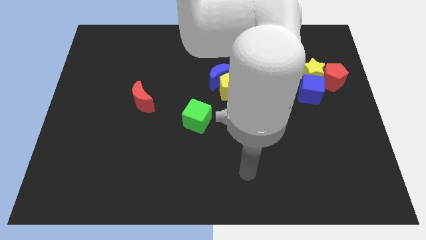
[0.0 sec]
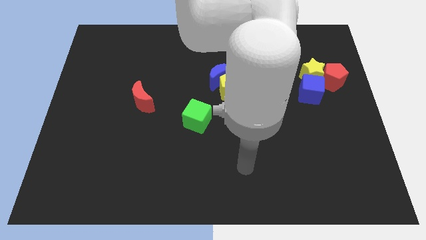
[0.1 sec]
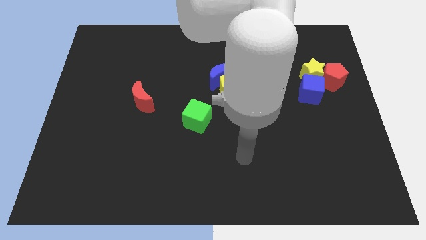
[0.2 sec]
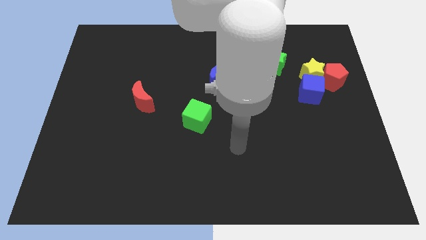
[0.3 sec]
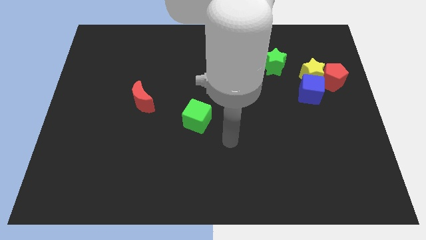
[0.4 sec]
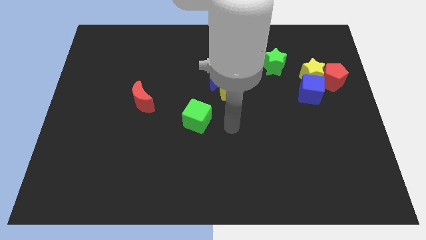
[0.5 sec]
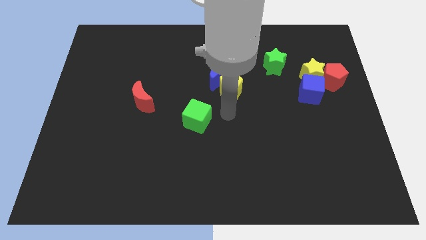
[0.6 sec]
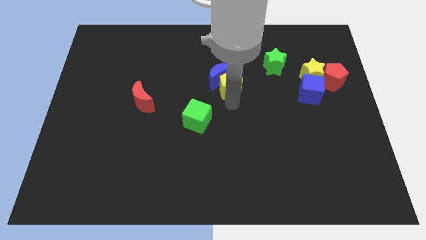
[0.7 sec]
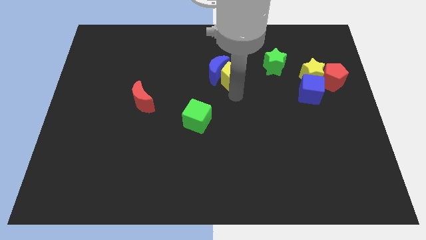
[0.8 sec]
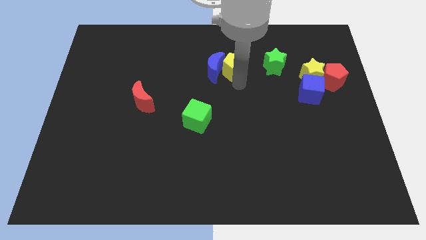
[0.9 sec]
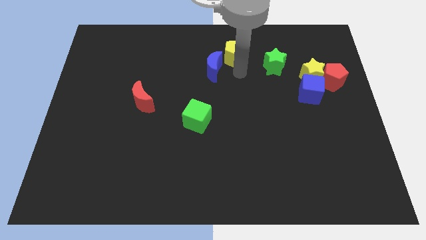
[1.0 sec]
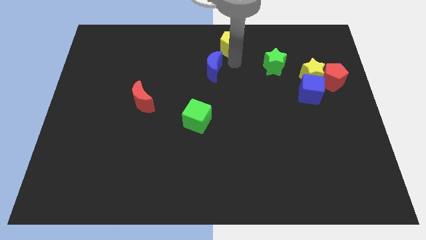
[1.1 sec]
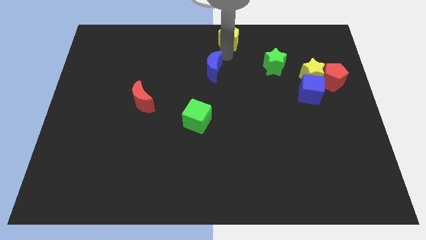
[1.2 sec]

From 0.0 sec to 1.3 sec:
move the blue moon away from the yellow pentagon

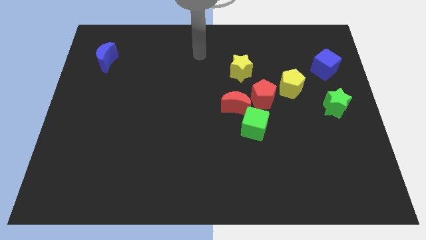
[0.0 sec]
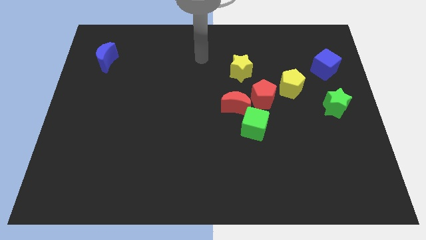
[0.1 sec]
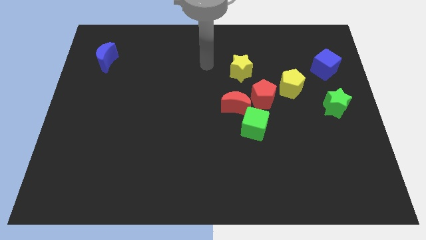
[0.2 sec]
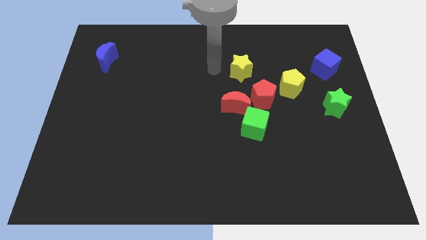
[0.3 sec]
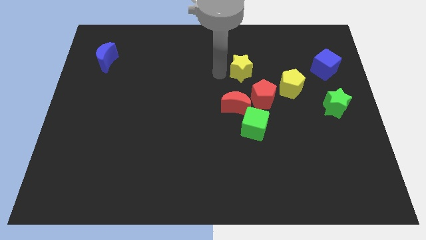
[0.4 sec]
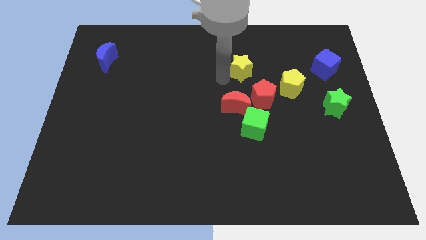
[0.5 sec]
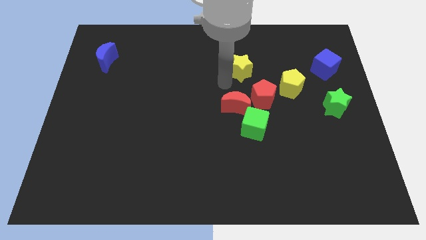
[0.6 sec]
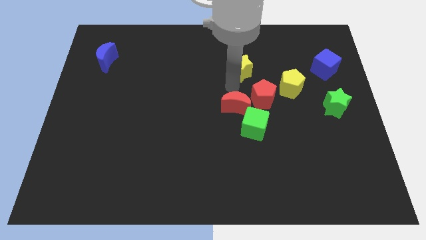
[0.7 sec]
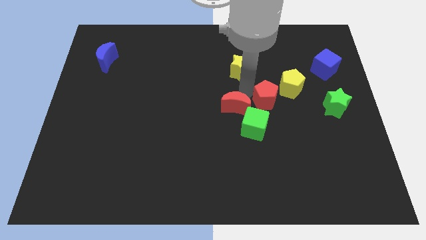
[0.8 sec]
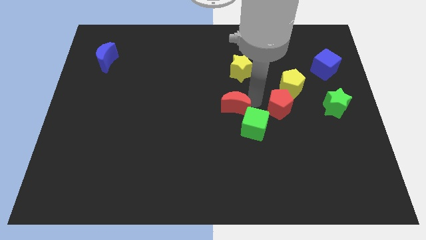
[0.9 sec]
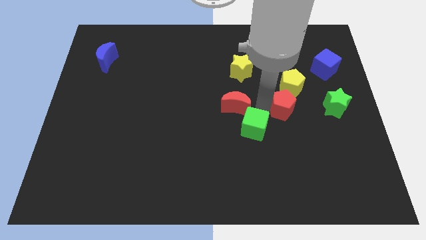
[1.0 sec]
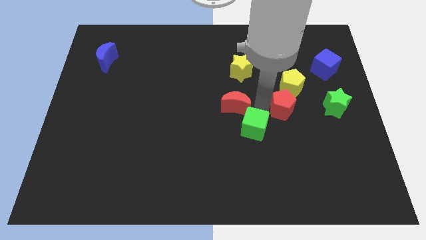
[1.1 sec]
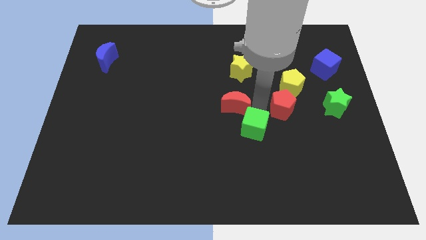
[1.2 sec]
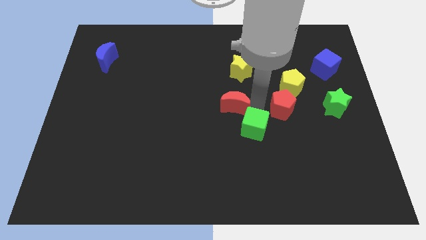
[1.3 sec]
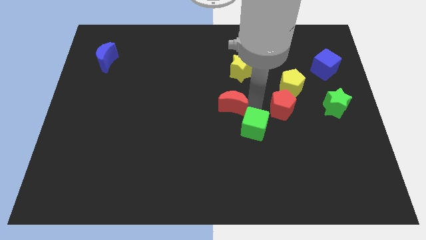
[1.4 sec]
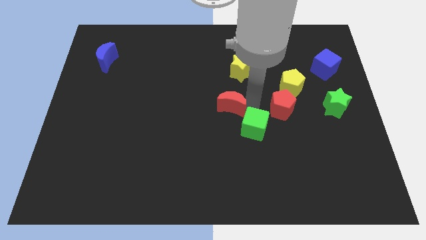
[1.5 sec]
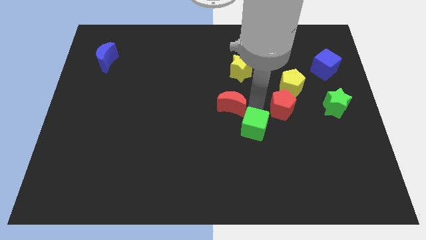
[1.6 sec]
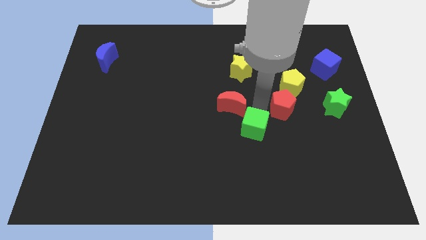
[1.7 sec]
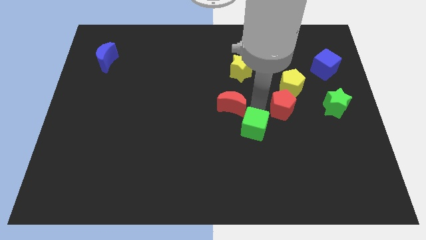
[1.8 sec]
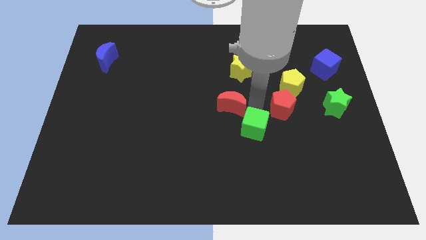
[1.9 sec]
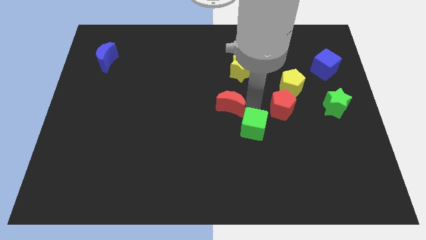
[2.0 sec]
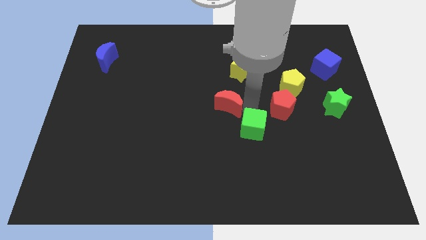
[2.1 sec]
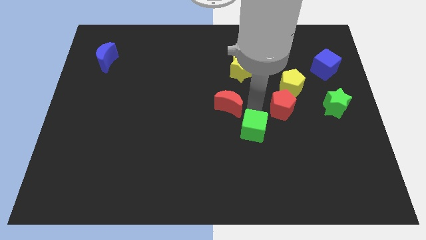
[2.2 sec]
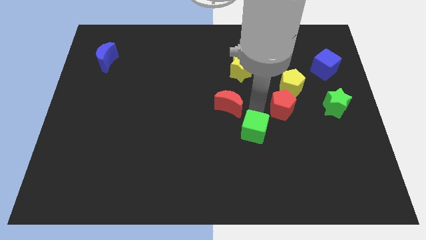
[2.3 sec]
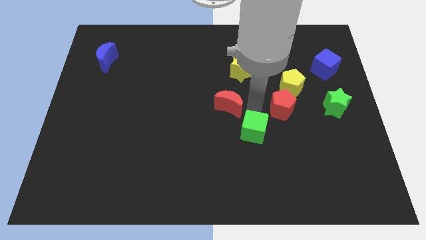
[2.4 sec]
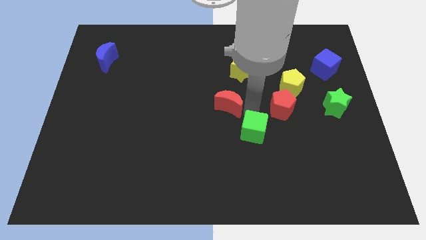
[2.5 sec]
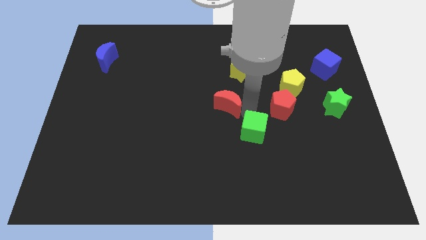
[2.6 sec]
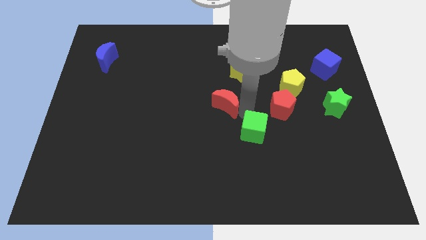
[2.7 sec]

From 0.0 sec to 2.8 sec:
move the red moon away from the red pentagon and green cube

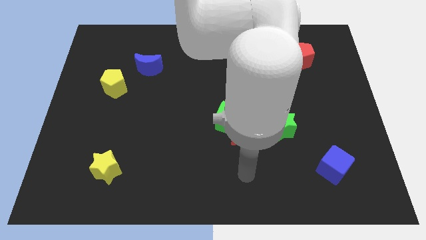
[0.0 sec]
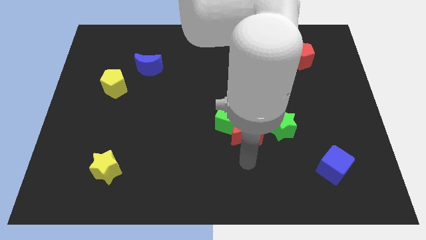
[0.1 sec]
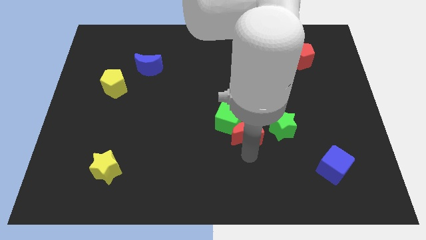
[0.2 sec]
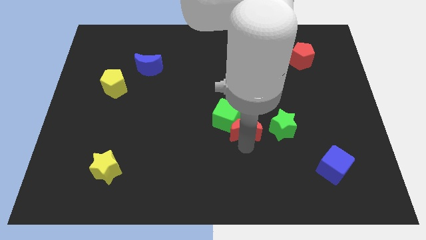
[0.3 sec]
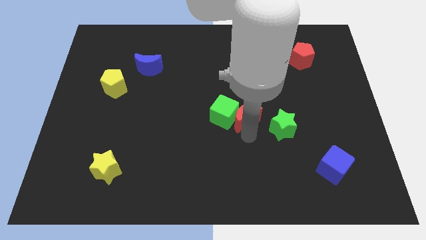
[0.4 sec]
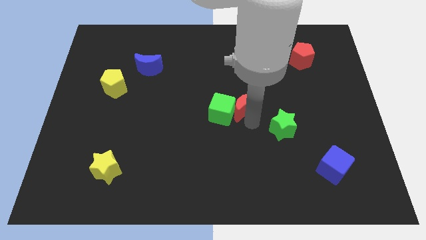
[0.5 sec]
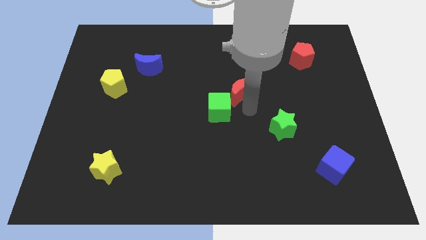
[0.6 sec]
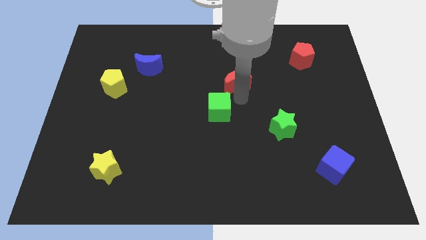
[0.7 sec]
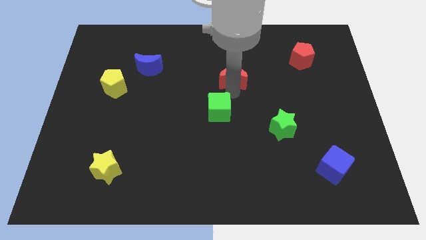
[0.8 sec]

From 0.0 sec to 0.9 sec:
separate the green cube from the red moon

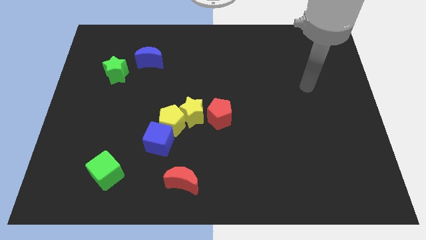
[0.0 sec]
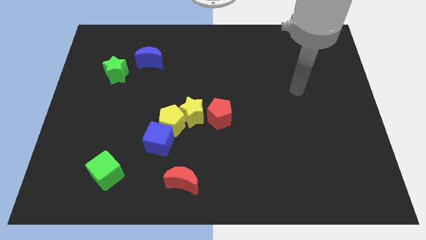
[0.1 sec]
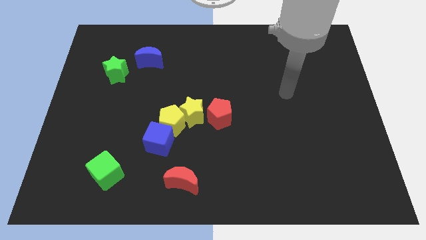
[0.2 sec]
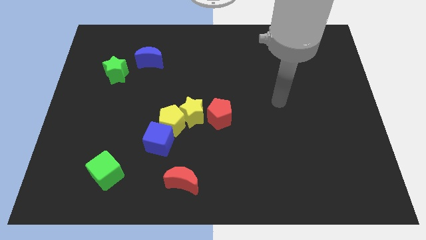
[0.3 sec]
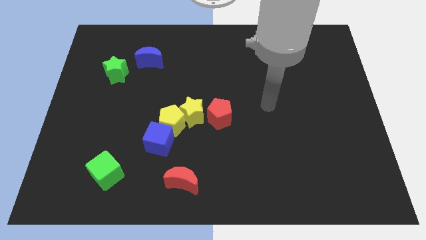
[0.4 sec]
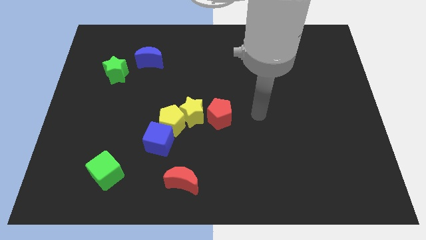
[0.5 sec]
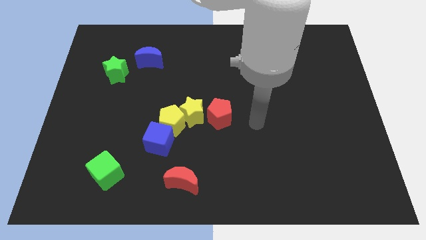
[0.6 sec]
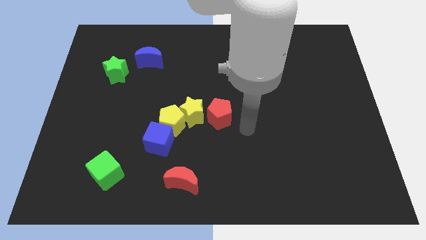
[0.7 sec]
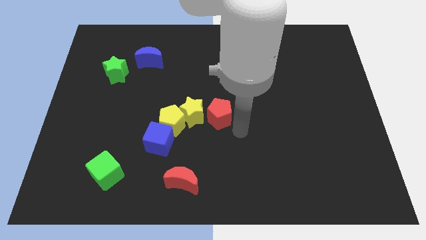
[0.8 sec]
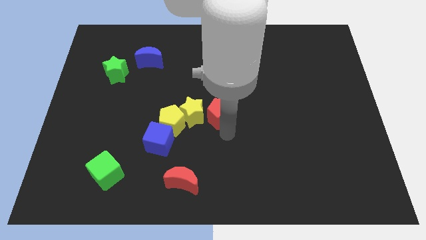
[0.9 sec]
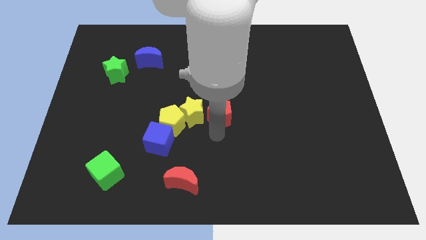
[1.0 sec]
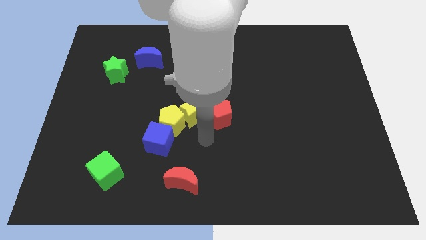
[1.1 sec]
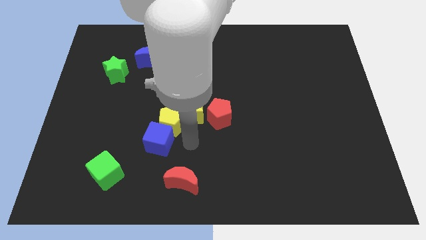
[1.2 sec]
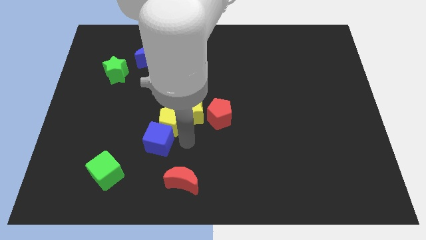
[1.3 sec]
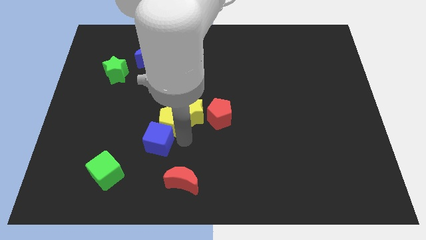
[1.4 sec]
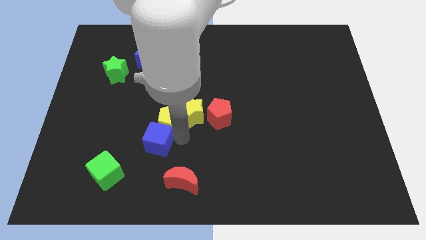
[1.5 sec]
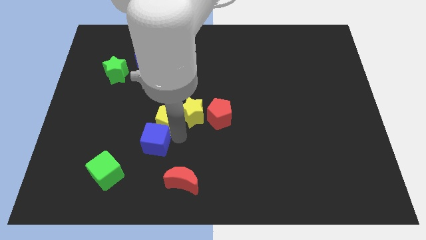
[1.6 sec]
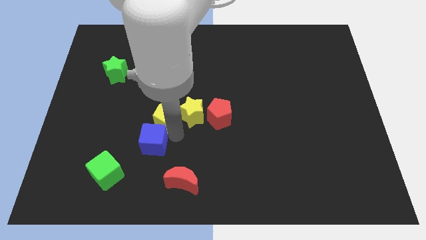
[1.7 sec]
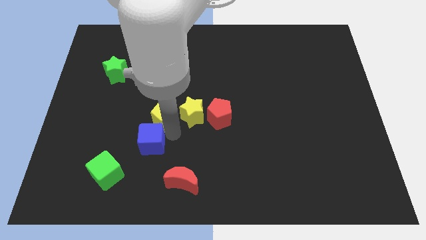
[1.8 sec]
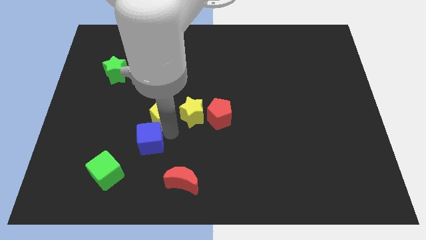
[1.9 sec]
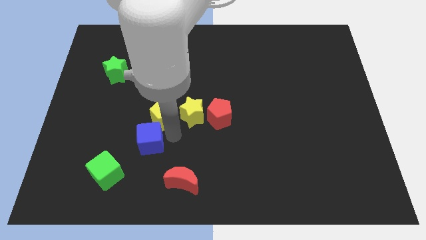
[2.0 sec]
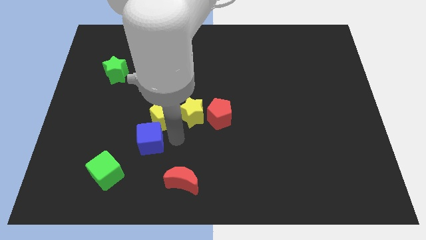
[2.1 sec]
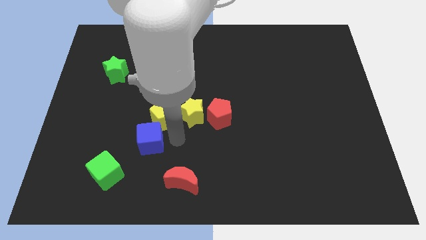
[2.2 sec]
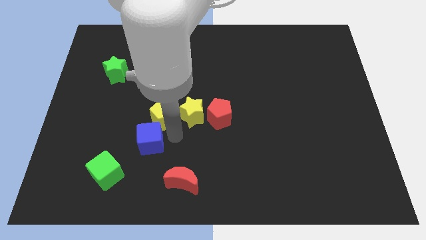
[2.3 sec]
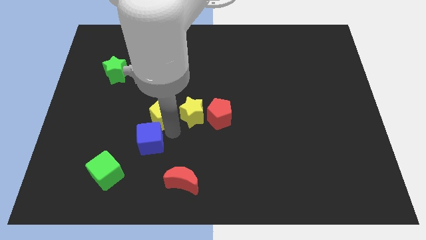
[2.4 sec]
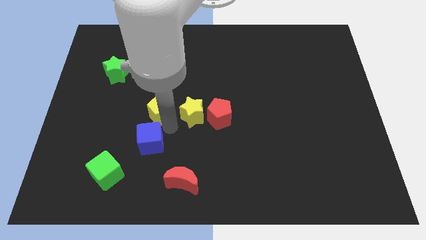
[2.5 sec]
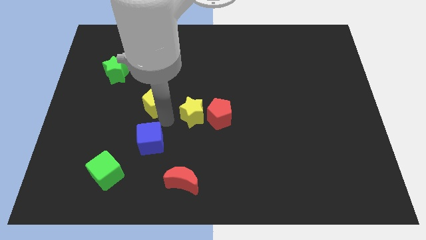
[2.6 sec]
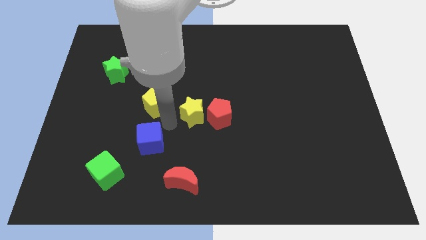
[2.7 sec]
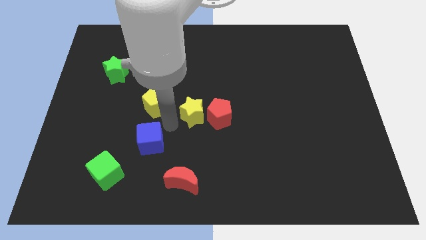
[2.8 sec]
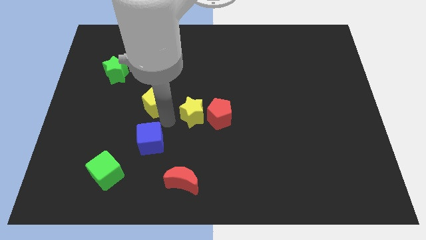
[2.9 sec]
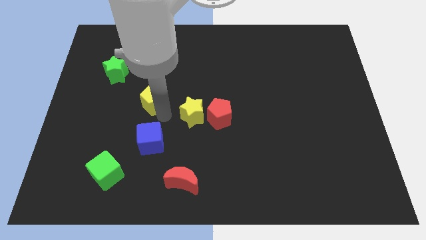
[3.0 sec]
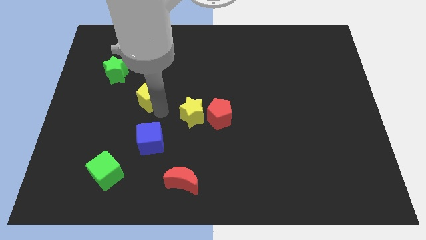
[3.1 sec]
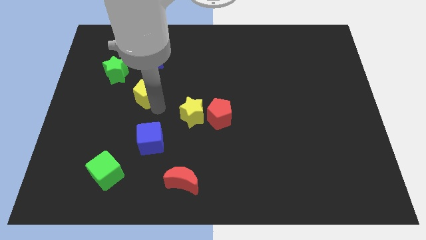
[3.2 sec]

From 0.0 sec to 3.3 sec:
pull the yellow pentagon apart from the yellow star and blue cube

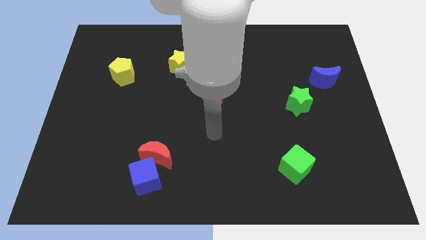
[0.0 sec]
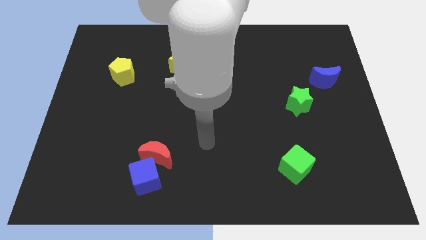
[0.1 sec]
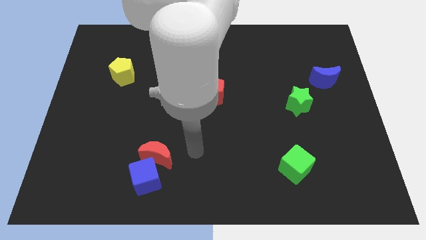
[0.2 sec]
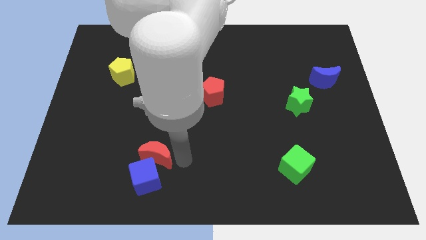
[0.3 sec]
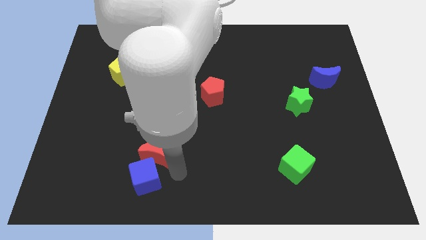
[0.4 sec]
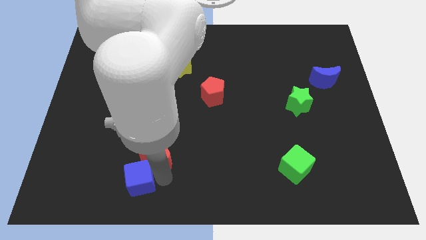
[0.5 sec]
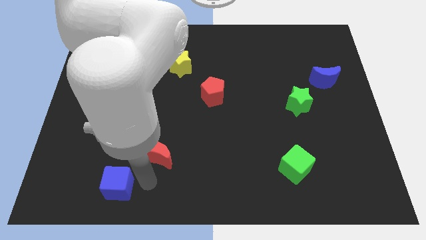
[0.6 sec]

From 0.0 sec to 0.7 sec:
pull the red moon apart from the blue cube
